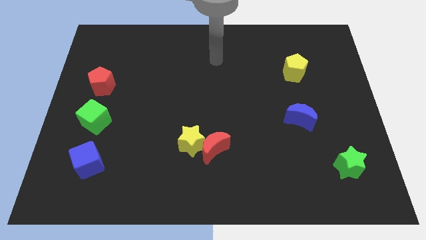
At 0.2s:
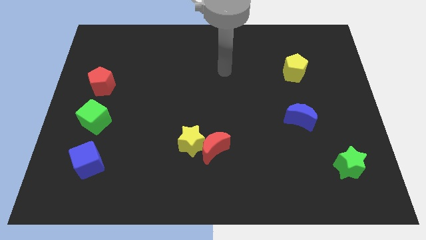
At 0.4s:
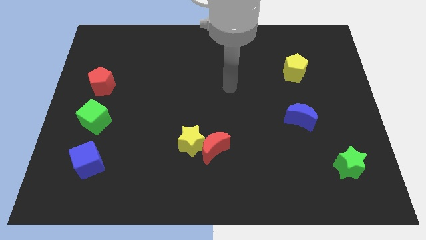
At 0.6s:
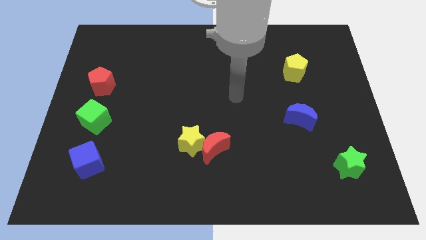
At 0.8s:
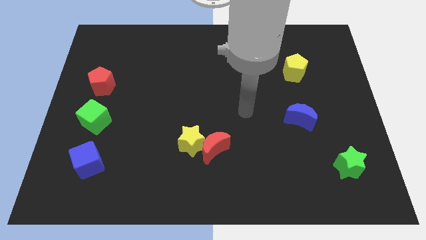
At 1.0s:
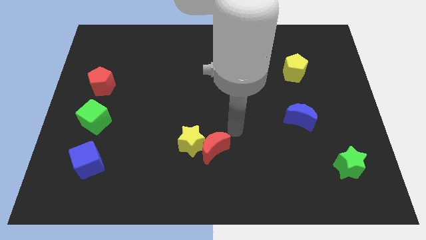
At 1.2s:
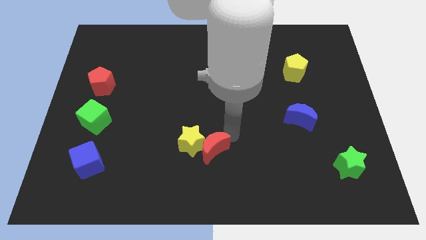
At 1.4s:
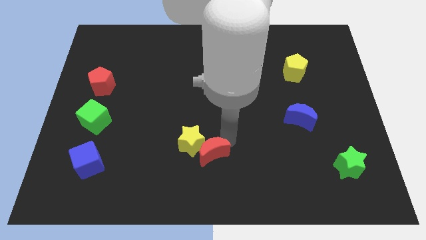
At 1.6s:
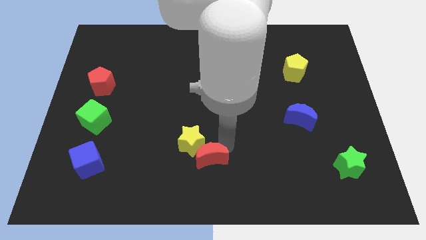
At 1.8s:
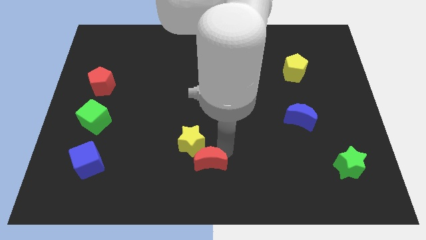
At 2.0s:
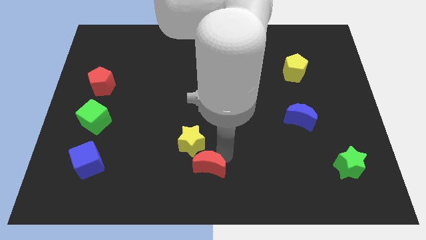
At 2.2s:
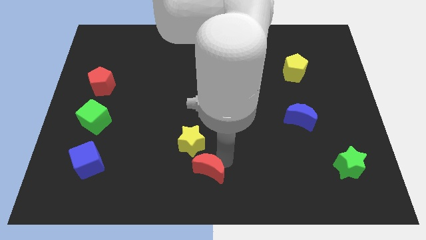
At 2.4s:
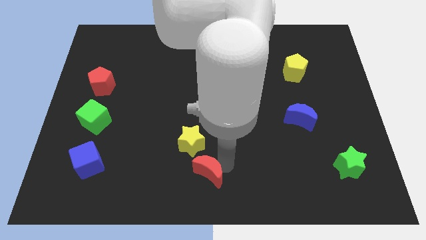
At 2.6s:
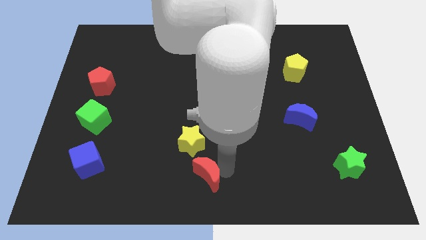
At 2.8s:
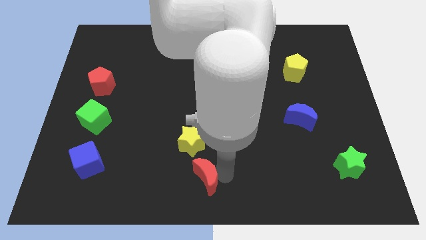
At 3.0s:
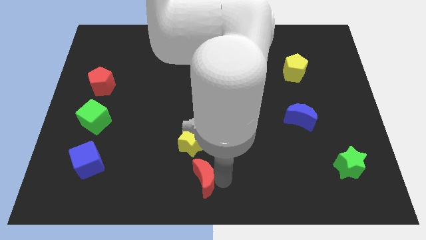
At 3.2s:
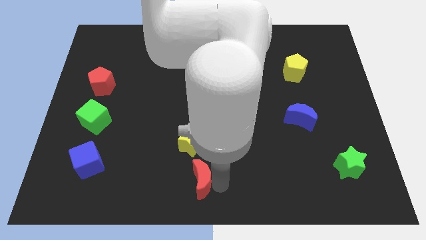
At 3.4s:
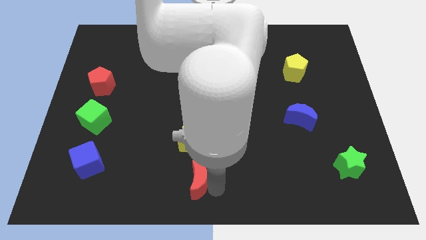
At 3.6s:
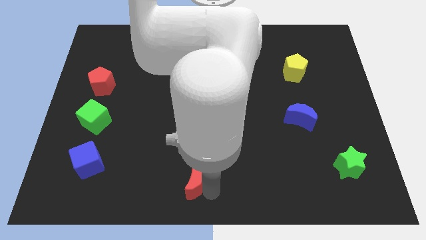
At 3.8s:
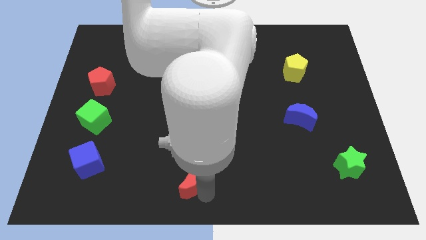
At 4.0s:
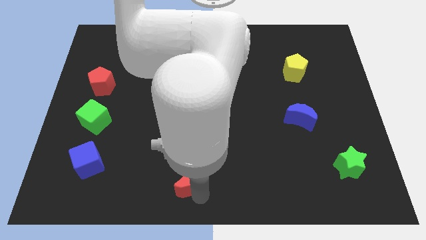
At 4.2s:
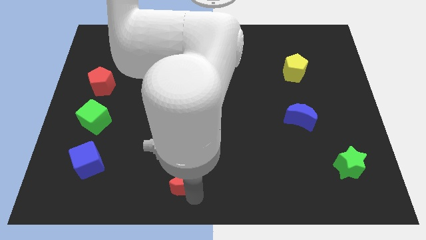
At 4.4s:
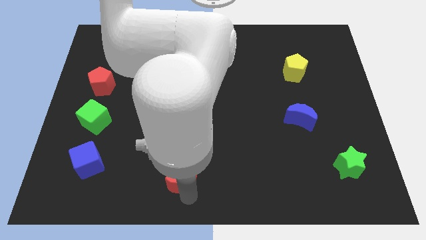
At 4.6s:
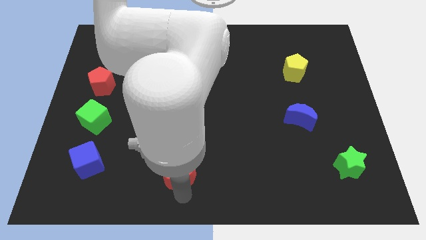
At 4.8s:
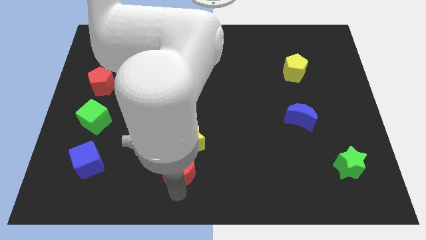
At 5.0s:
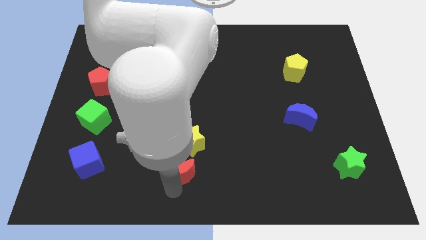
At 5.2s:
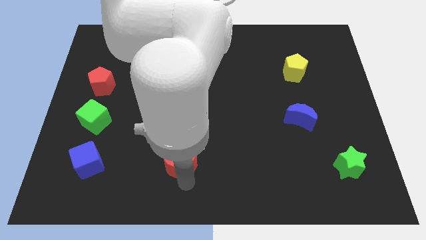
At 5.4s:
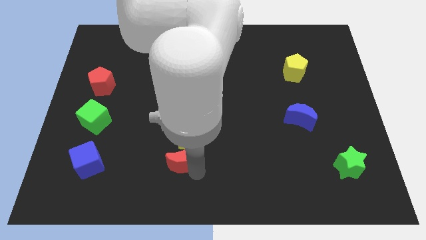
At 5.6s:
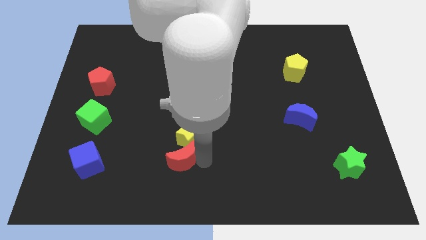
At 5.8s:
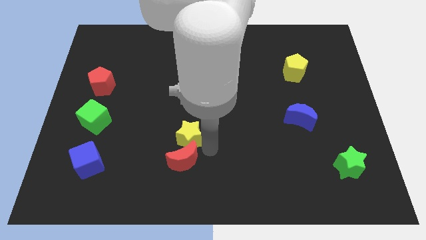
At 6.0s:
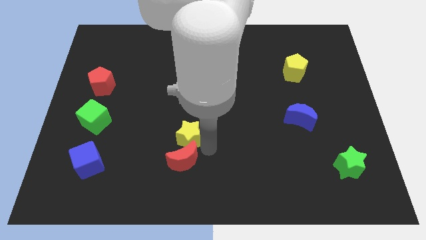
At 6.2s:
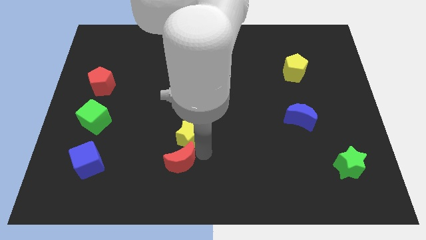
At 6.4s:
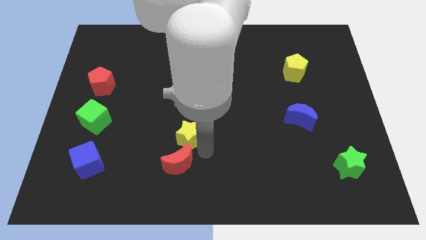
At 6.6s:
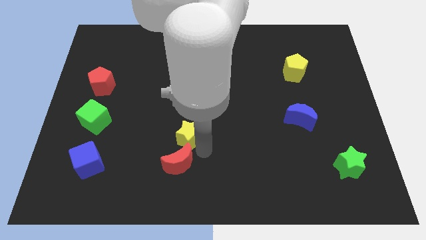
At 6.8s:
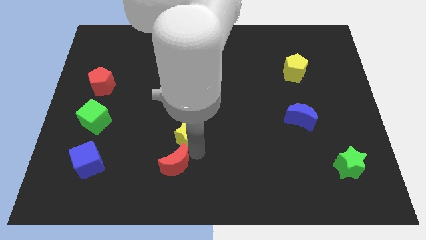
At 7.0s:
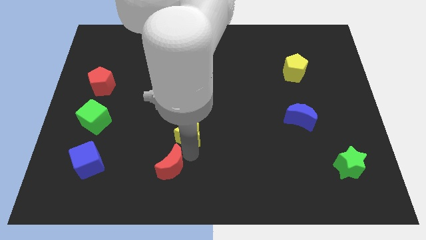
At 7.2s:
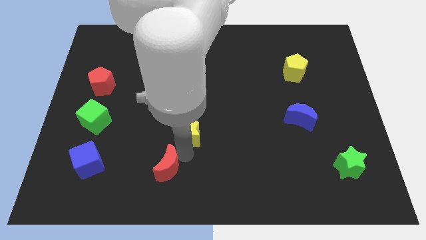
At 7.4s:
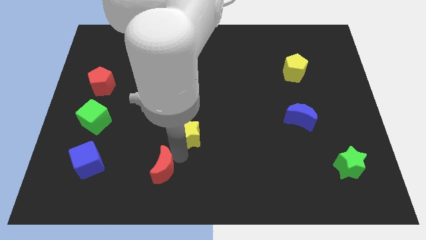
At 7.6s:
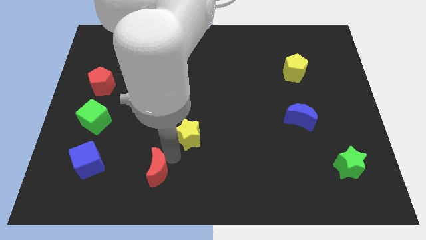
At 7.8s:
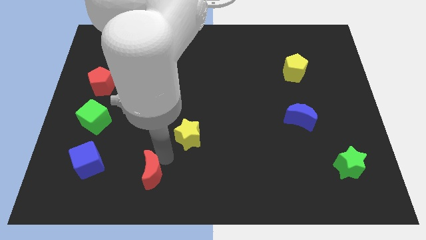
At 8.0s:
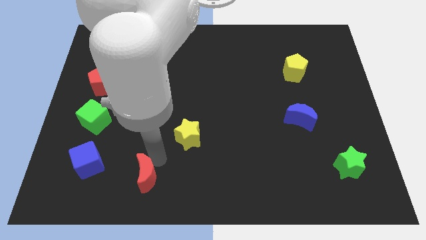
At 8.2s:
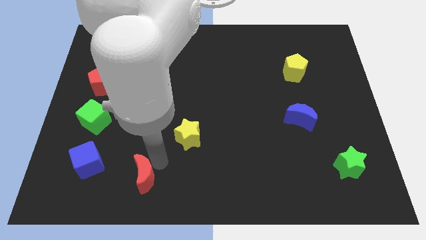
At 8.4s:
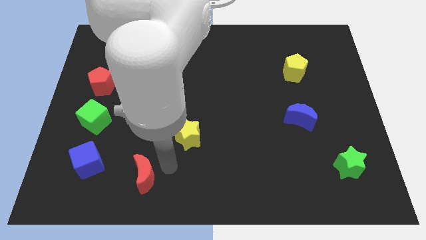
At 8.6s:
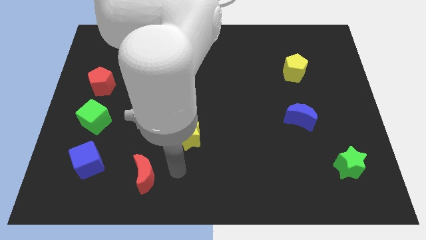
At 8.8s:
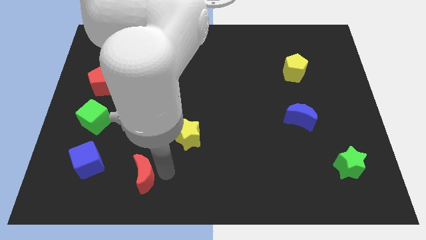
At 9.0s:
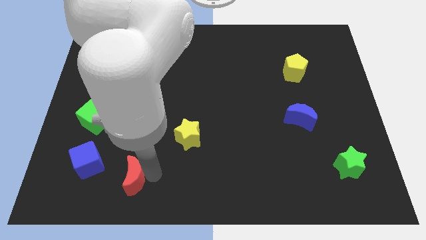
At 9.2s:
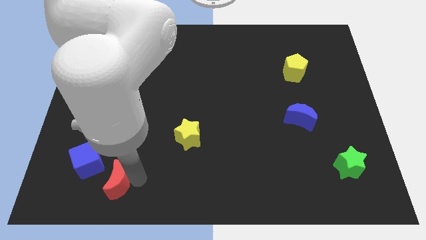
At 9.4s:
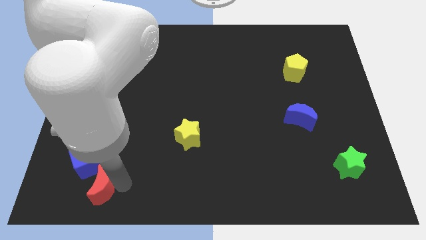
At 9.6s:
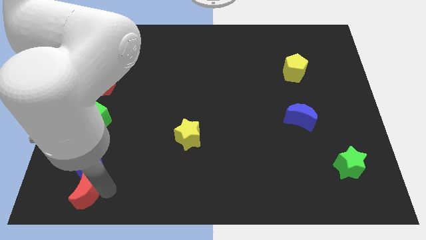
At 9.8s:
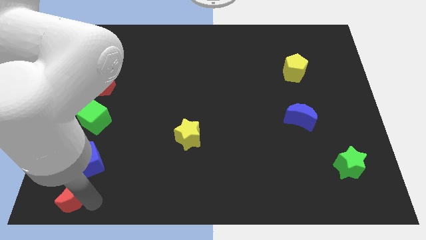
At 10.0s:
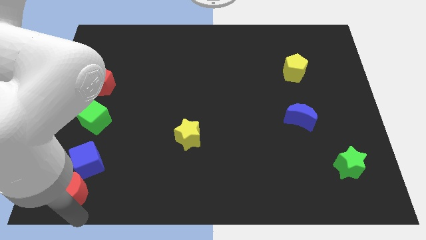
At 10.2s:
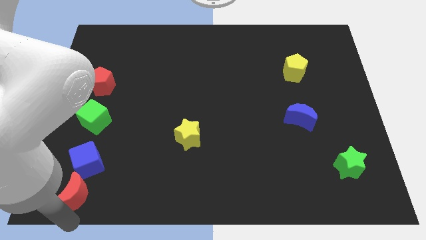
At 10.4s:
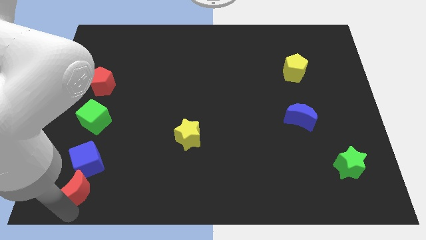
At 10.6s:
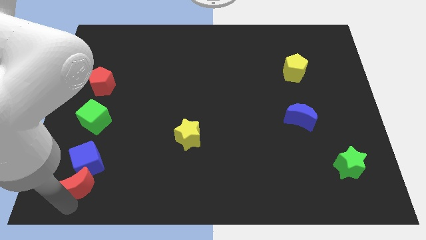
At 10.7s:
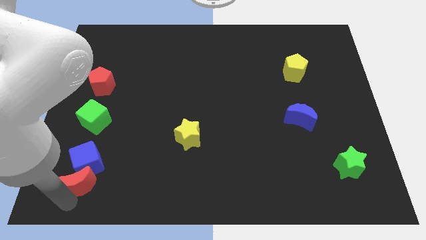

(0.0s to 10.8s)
put the red moon below the green cube
